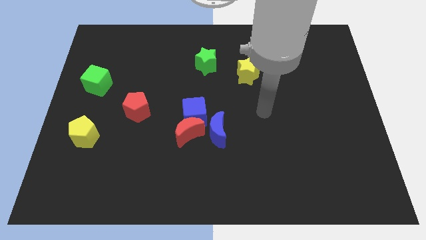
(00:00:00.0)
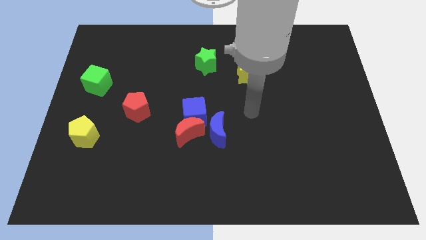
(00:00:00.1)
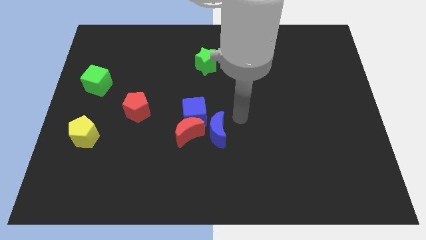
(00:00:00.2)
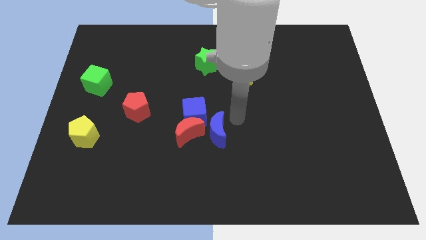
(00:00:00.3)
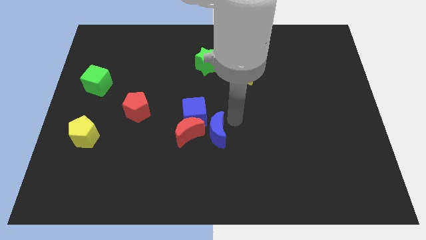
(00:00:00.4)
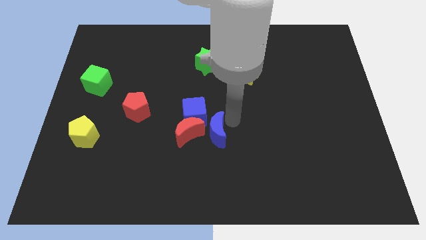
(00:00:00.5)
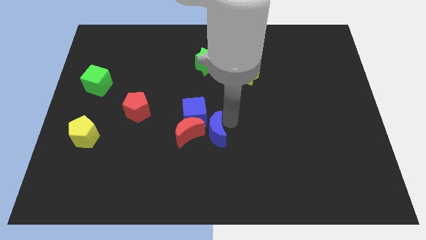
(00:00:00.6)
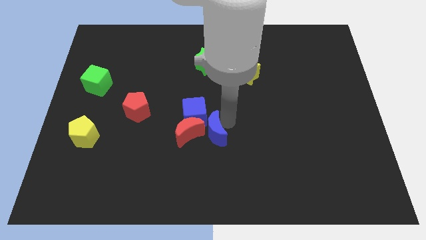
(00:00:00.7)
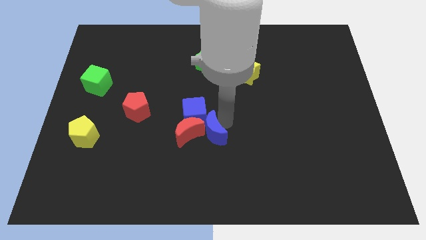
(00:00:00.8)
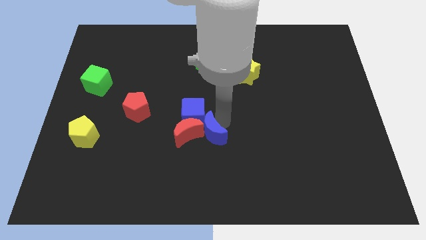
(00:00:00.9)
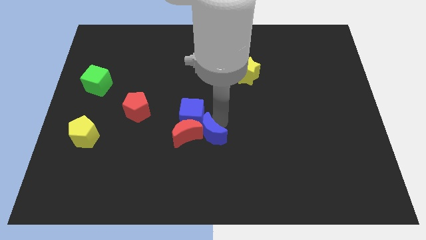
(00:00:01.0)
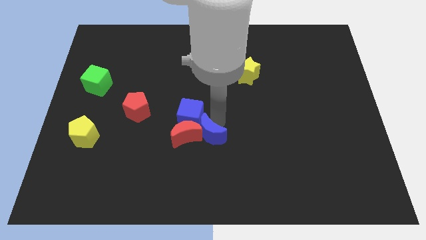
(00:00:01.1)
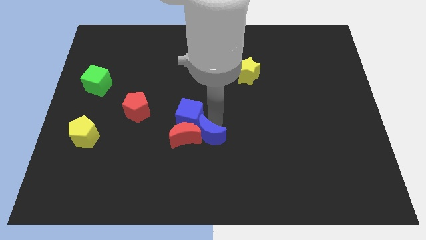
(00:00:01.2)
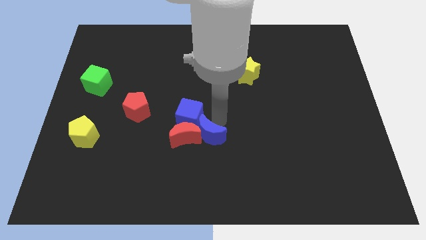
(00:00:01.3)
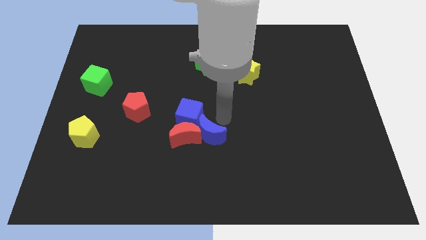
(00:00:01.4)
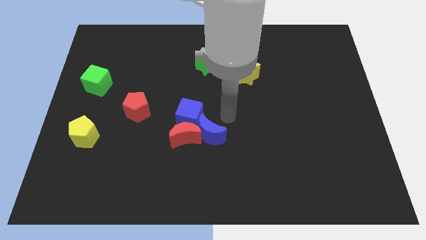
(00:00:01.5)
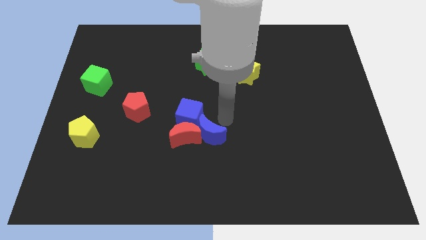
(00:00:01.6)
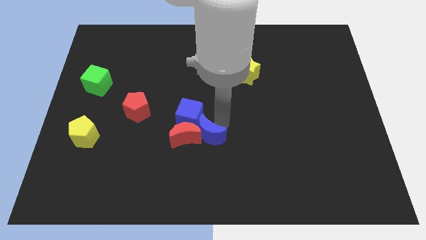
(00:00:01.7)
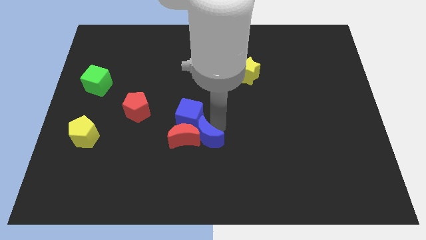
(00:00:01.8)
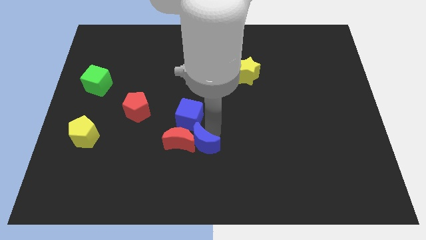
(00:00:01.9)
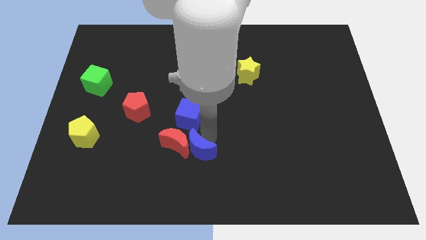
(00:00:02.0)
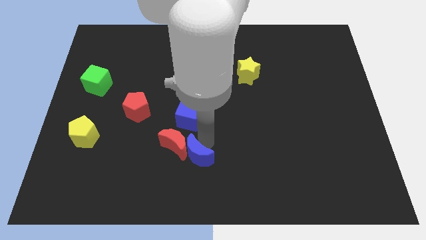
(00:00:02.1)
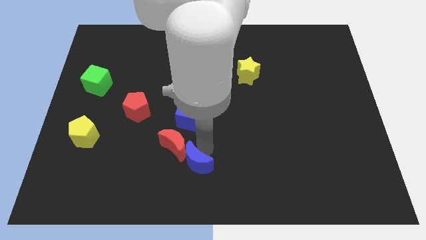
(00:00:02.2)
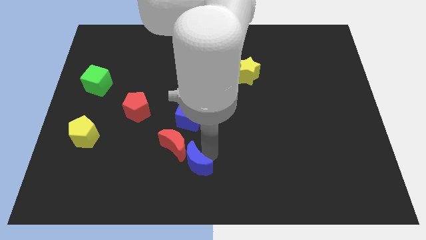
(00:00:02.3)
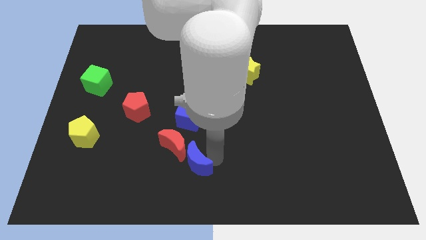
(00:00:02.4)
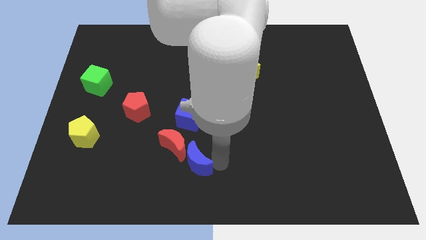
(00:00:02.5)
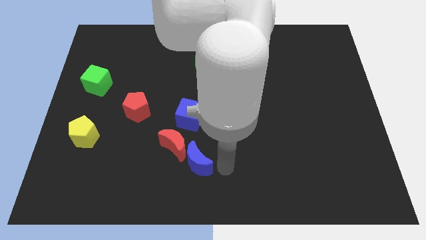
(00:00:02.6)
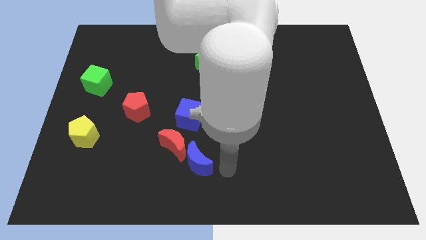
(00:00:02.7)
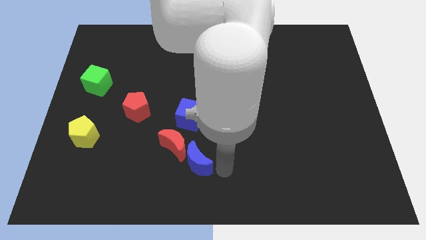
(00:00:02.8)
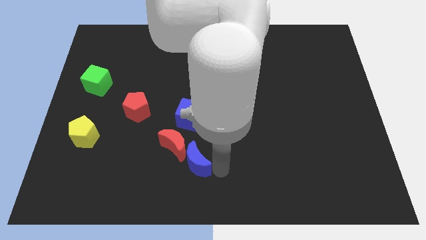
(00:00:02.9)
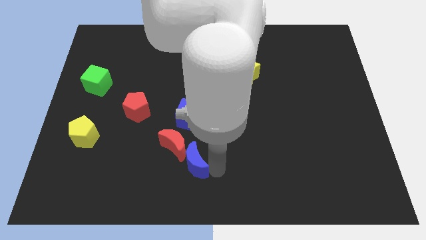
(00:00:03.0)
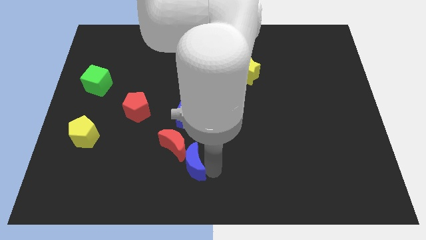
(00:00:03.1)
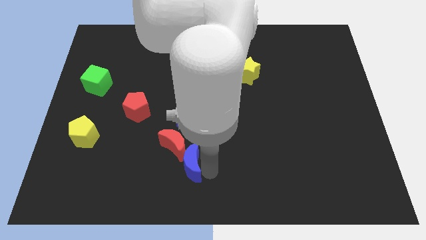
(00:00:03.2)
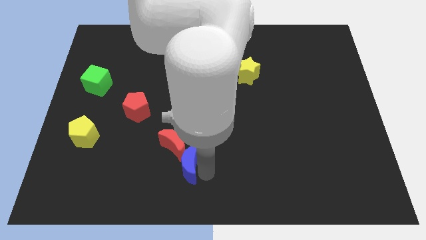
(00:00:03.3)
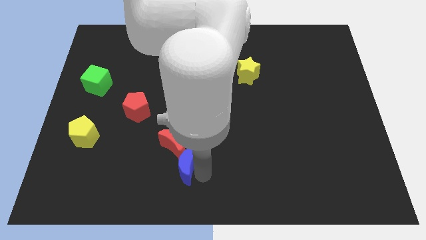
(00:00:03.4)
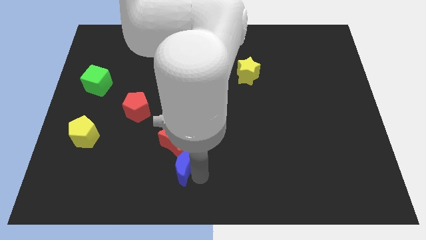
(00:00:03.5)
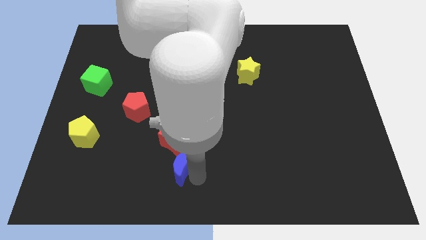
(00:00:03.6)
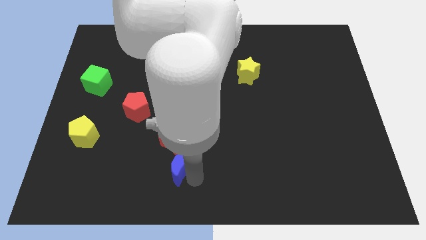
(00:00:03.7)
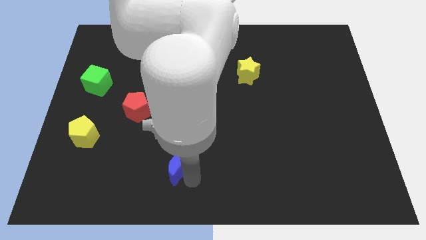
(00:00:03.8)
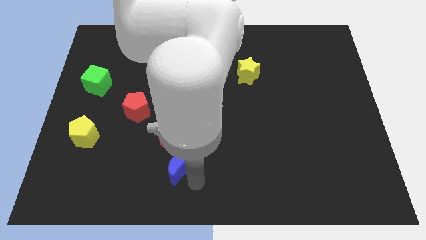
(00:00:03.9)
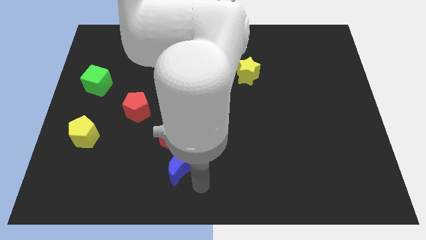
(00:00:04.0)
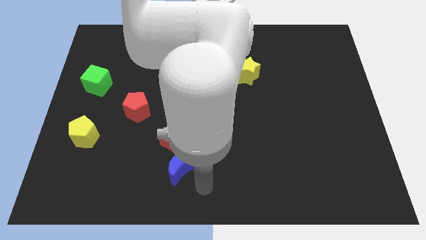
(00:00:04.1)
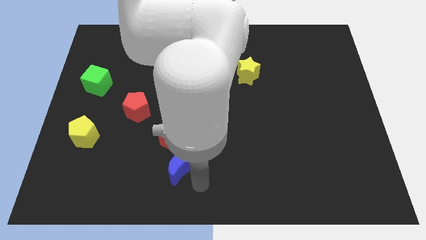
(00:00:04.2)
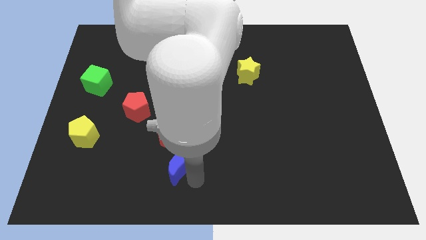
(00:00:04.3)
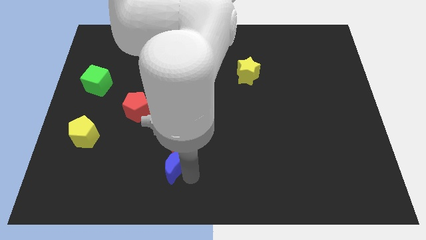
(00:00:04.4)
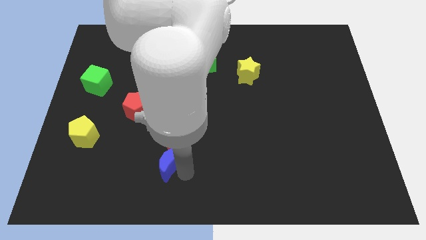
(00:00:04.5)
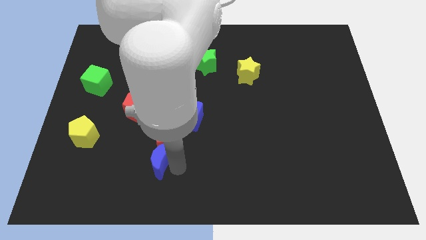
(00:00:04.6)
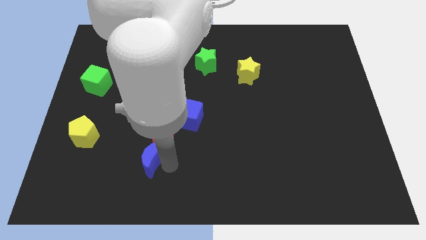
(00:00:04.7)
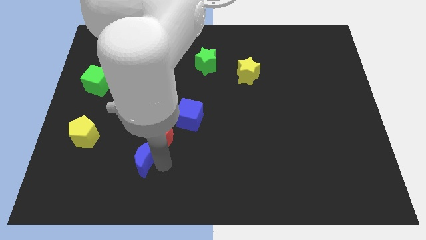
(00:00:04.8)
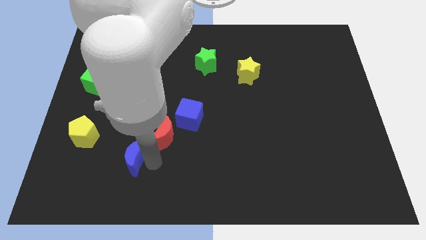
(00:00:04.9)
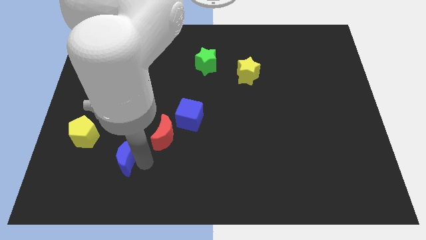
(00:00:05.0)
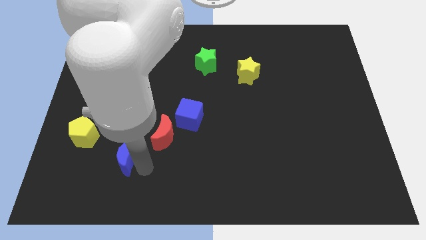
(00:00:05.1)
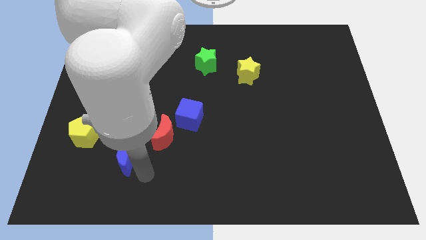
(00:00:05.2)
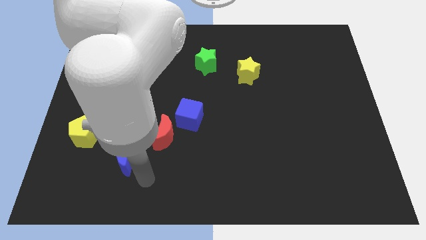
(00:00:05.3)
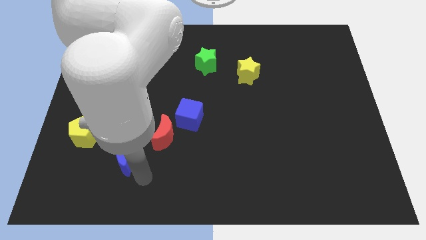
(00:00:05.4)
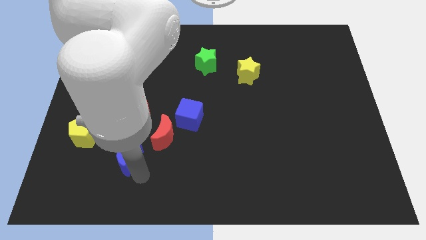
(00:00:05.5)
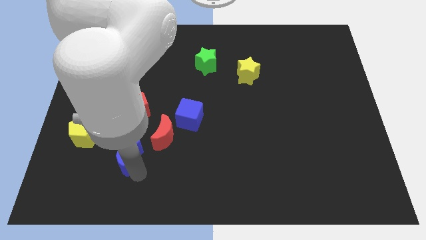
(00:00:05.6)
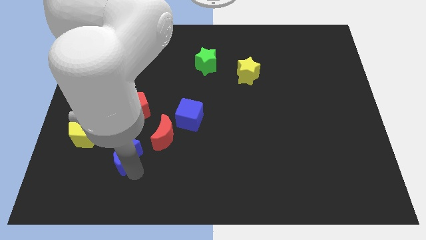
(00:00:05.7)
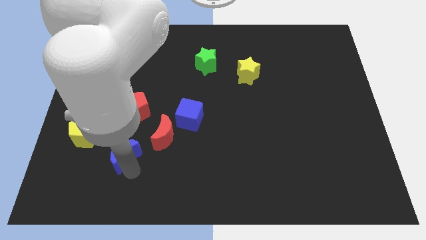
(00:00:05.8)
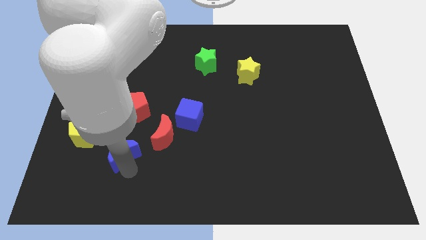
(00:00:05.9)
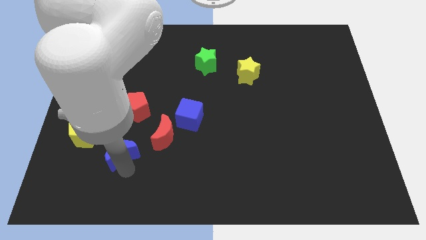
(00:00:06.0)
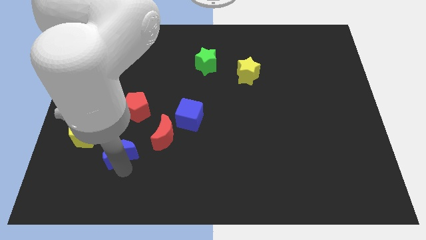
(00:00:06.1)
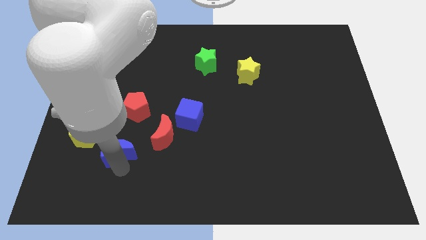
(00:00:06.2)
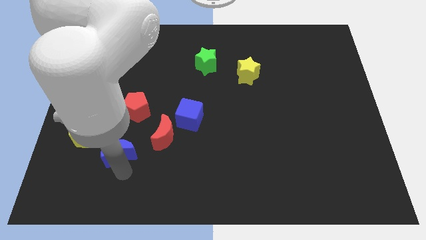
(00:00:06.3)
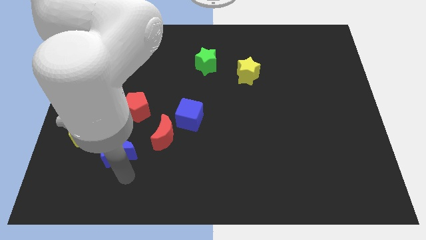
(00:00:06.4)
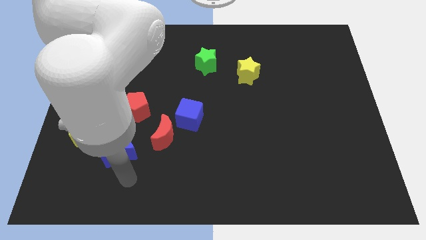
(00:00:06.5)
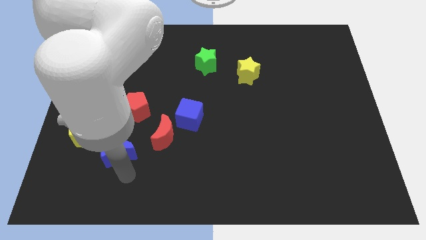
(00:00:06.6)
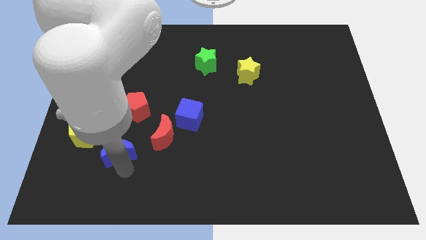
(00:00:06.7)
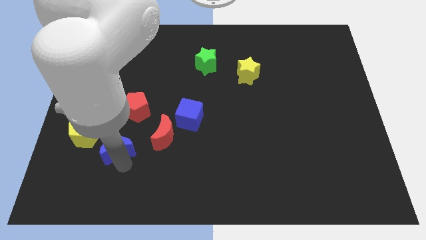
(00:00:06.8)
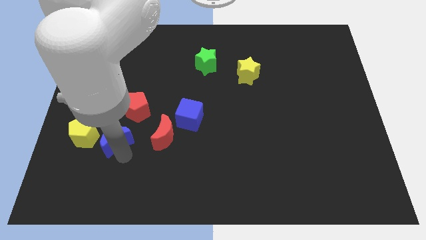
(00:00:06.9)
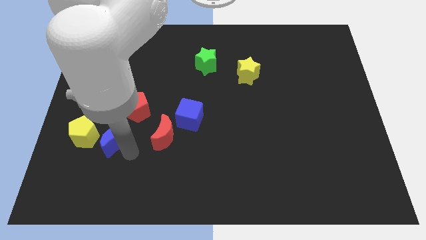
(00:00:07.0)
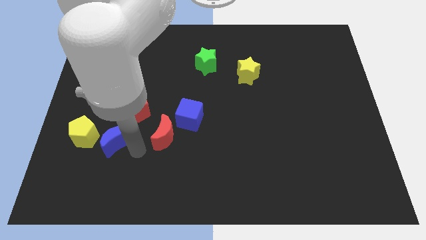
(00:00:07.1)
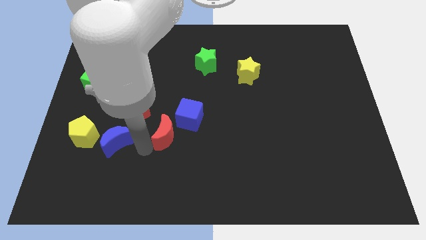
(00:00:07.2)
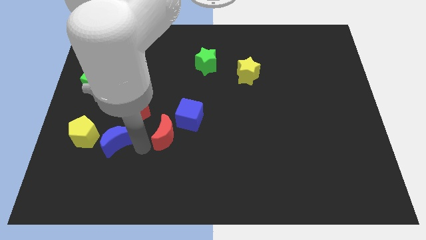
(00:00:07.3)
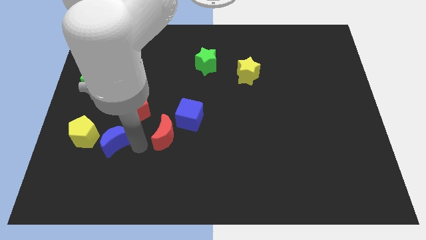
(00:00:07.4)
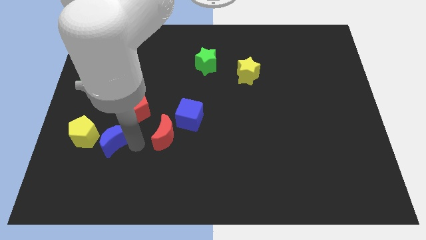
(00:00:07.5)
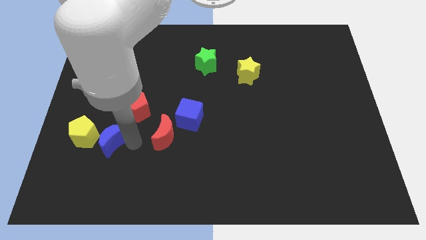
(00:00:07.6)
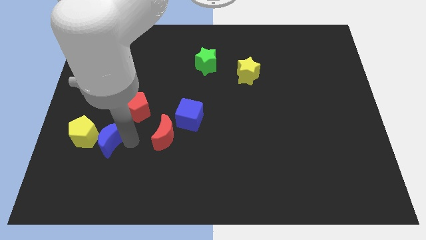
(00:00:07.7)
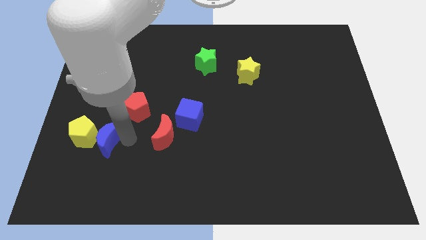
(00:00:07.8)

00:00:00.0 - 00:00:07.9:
put the blue moon towards the yellow pentagon
